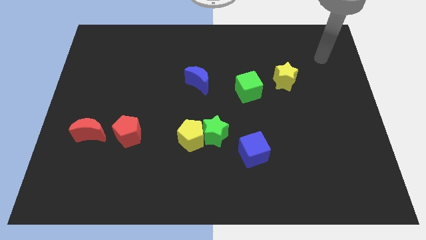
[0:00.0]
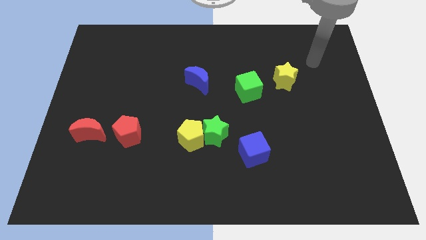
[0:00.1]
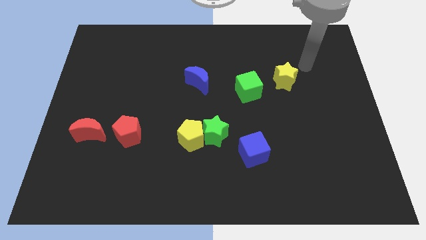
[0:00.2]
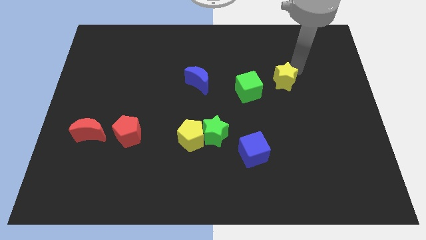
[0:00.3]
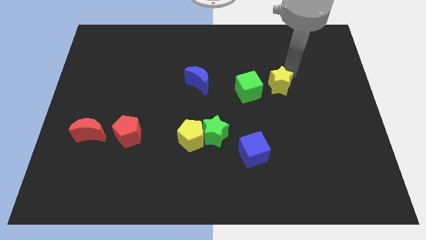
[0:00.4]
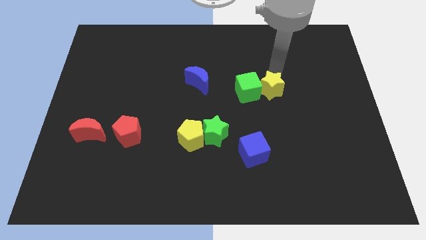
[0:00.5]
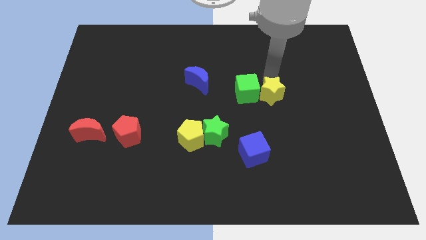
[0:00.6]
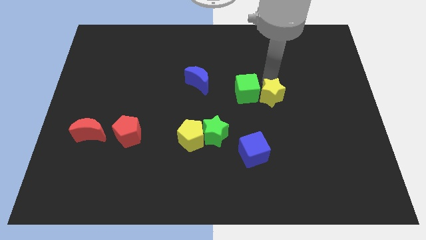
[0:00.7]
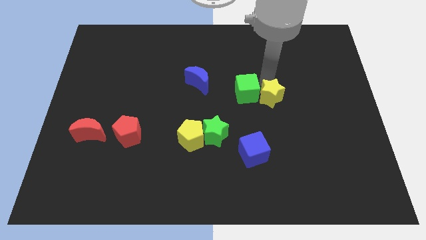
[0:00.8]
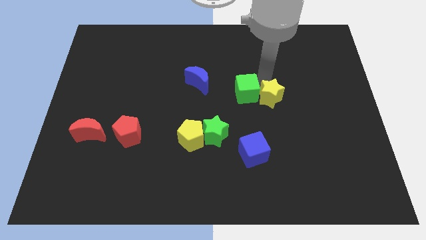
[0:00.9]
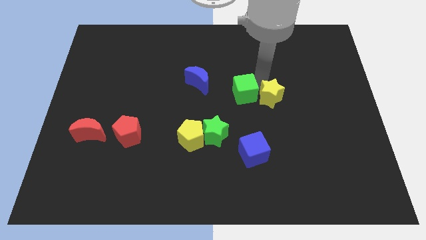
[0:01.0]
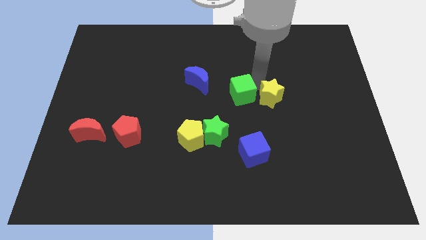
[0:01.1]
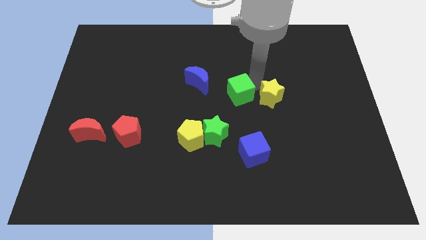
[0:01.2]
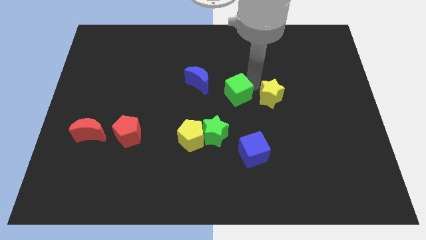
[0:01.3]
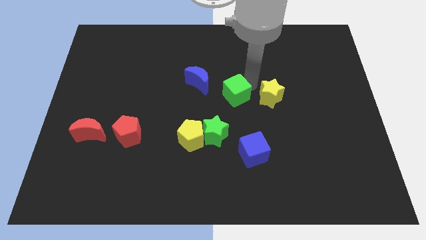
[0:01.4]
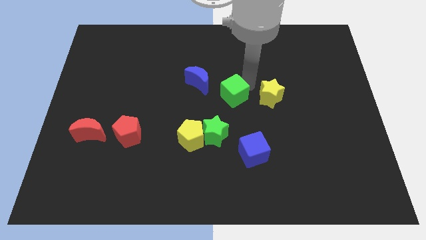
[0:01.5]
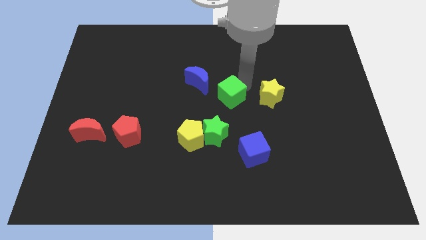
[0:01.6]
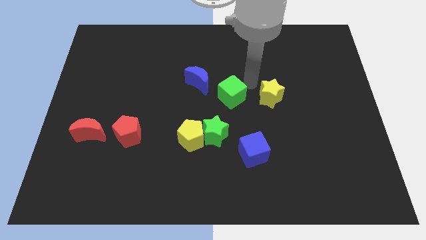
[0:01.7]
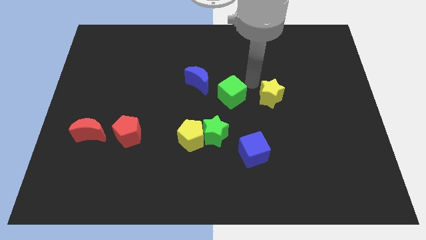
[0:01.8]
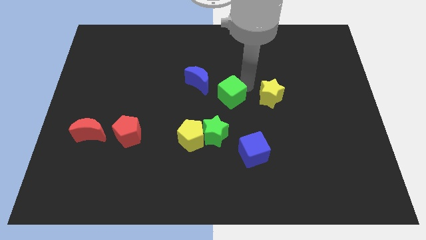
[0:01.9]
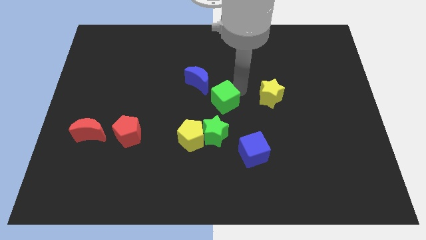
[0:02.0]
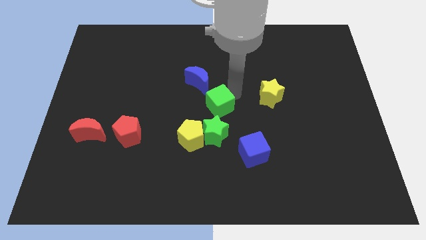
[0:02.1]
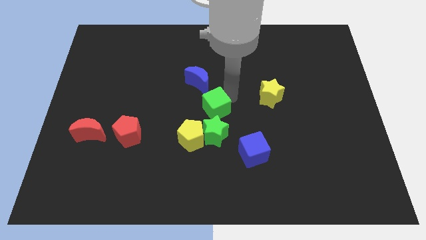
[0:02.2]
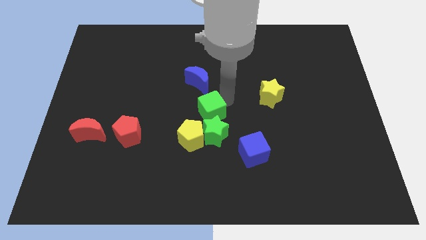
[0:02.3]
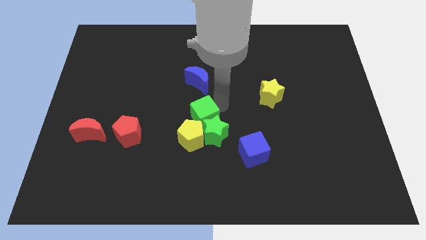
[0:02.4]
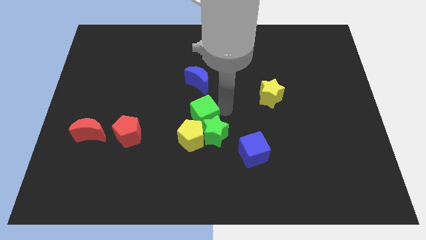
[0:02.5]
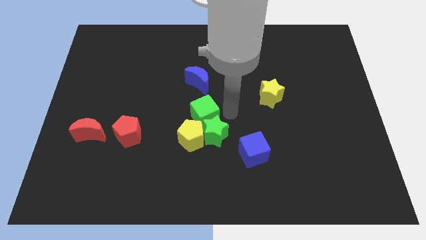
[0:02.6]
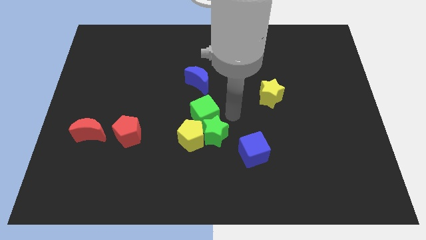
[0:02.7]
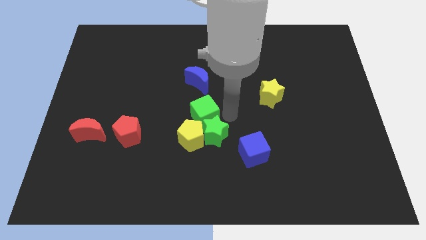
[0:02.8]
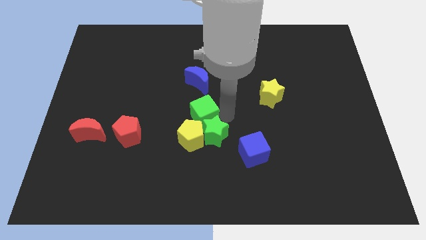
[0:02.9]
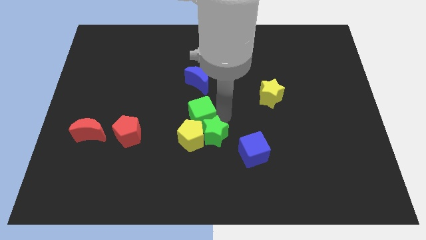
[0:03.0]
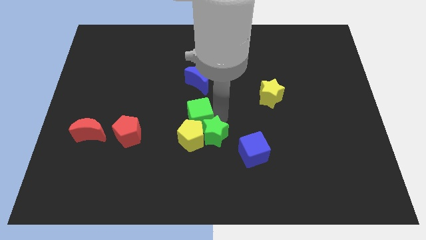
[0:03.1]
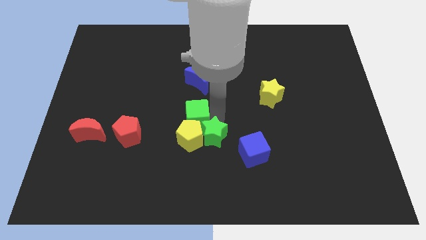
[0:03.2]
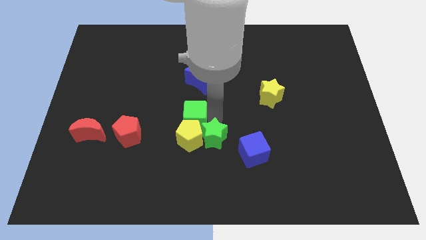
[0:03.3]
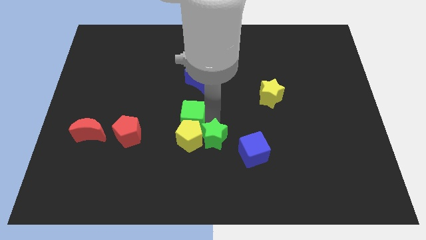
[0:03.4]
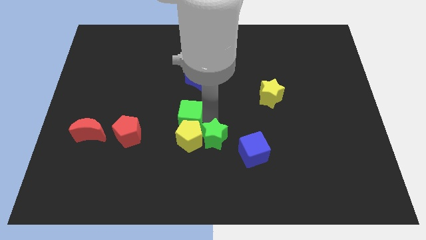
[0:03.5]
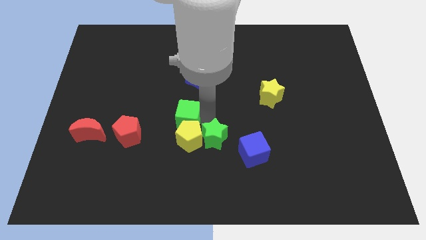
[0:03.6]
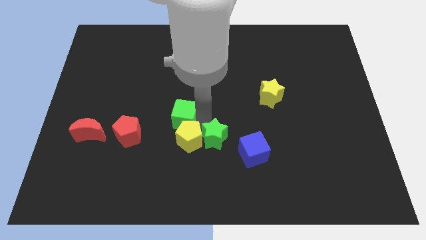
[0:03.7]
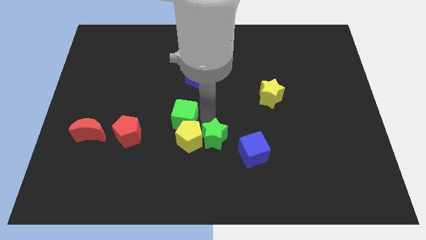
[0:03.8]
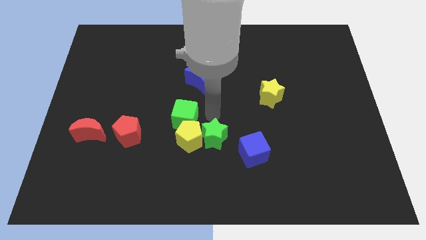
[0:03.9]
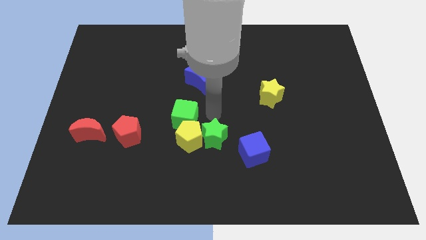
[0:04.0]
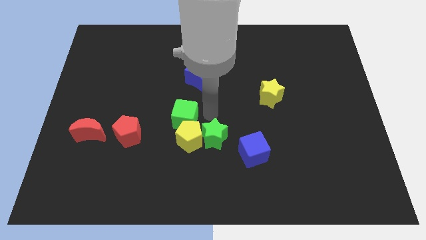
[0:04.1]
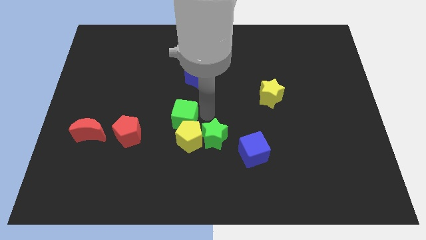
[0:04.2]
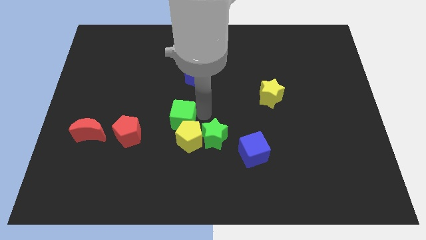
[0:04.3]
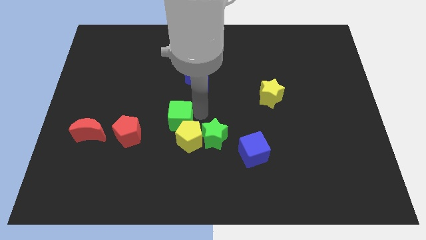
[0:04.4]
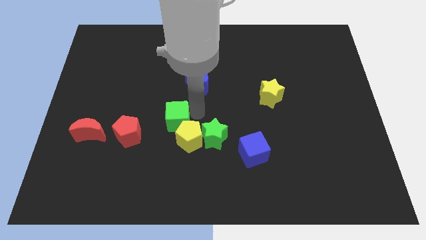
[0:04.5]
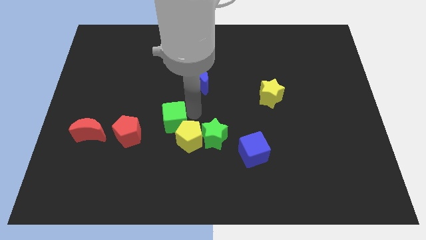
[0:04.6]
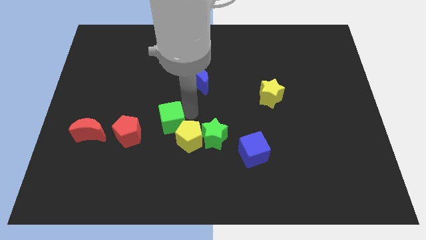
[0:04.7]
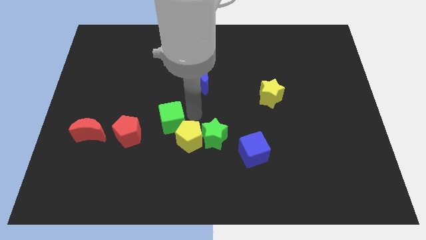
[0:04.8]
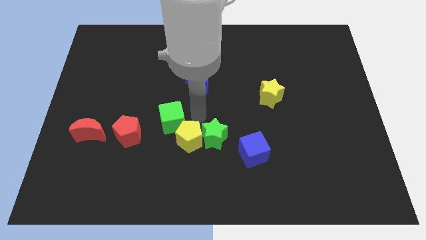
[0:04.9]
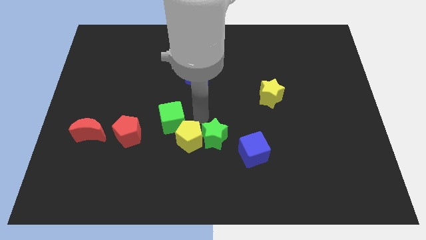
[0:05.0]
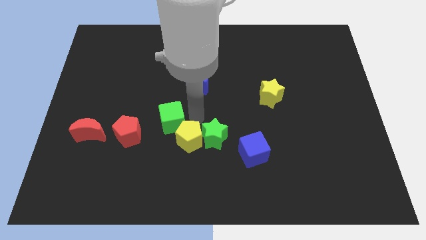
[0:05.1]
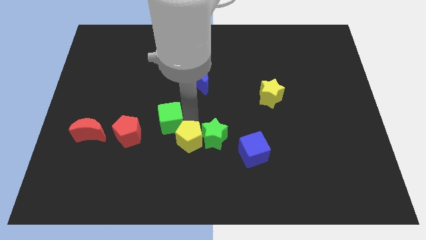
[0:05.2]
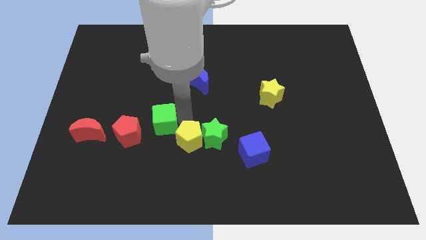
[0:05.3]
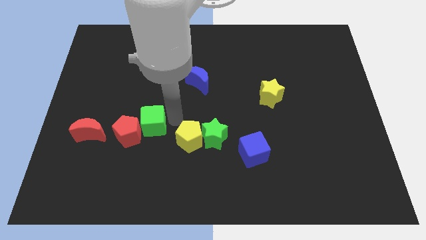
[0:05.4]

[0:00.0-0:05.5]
slide the green cube next to the red pentagon

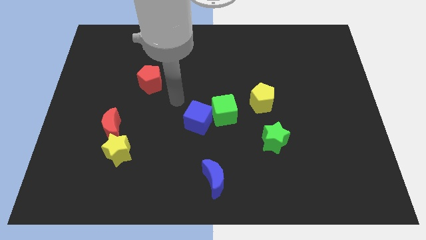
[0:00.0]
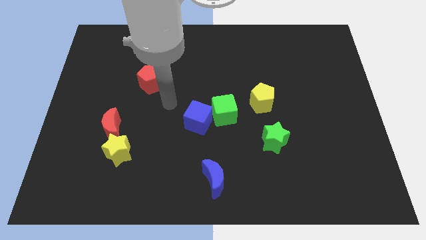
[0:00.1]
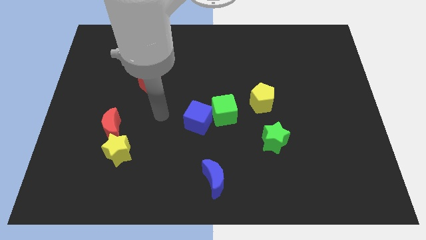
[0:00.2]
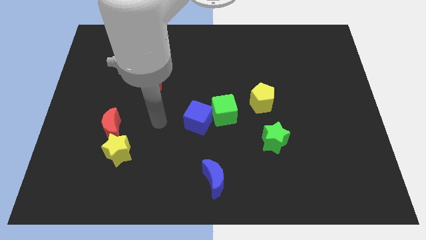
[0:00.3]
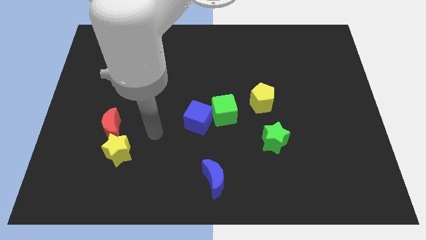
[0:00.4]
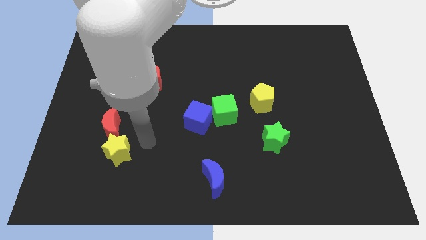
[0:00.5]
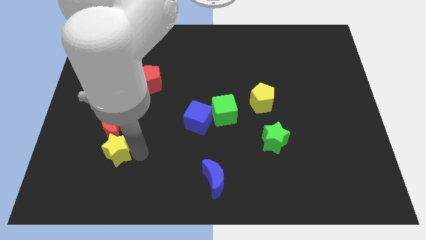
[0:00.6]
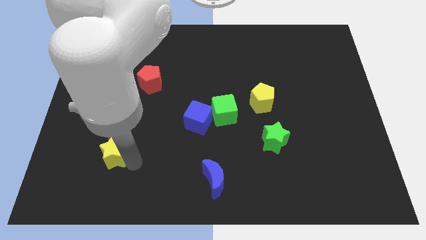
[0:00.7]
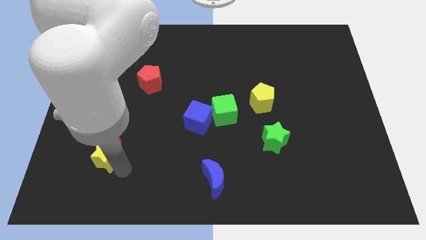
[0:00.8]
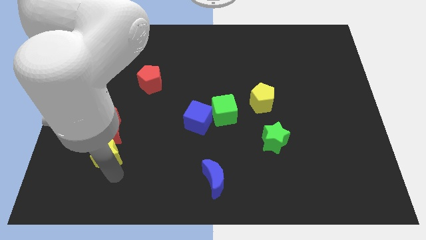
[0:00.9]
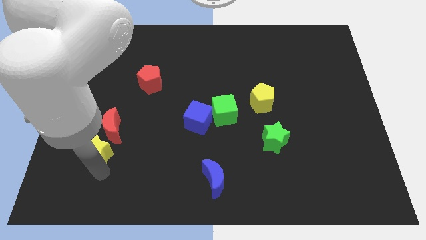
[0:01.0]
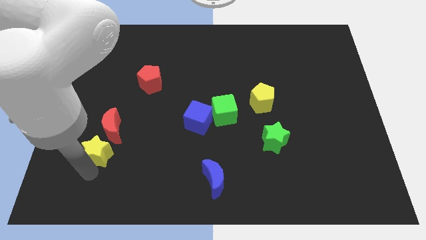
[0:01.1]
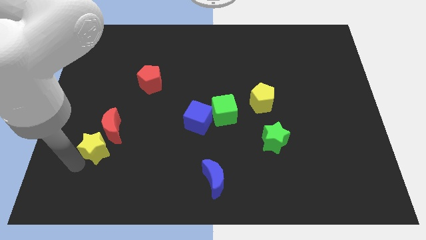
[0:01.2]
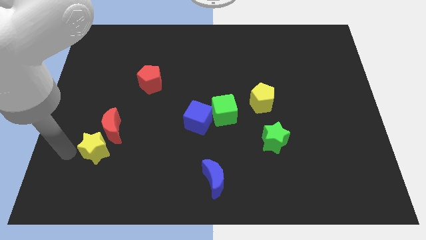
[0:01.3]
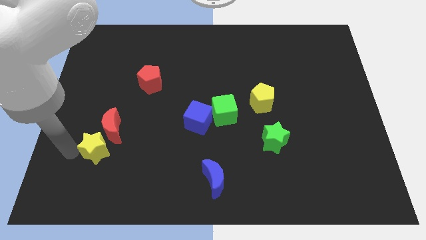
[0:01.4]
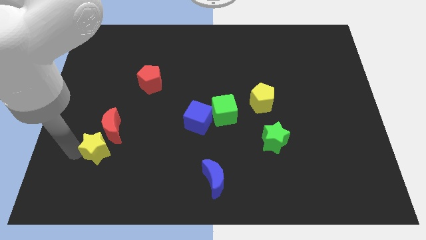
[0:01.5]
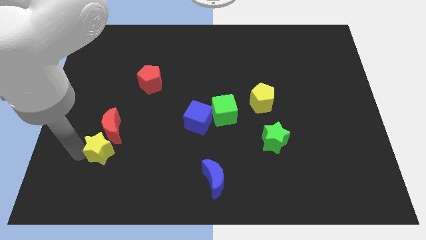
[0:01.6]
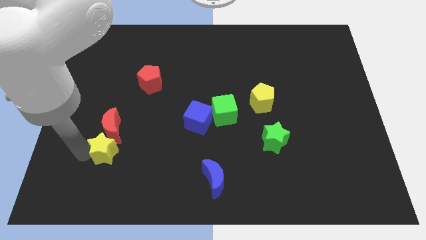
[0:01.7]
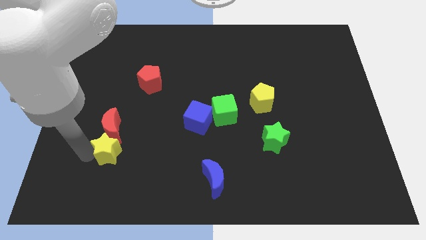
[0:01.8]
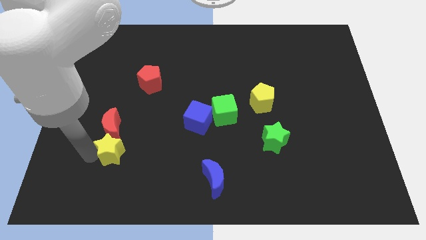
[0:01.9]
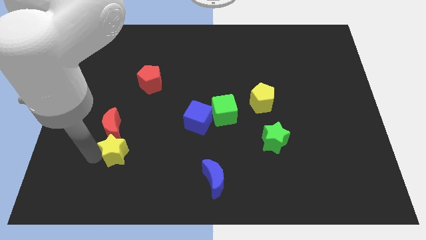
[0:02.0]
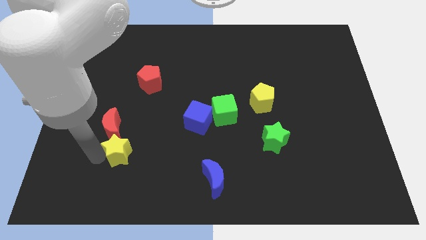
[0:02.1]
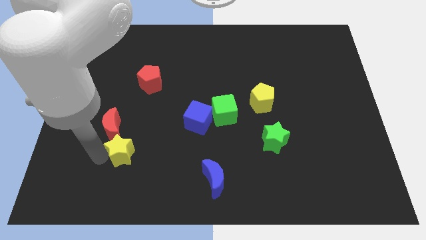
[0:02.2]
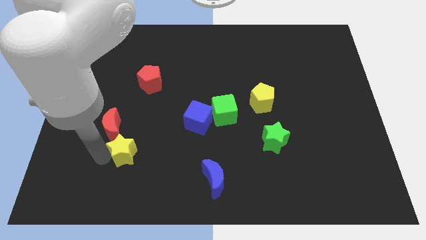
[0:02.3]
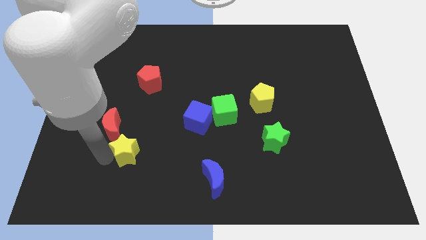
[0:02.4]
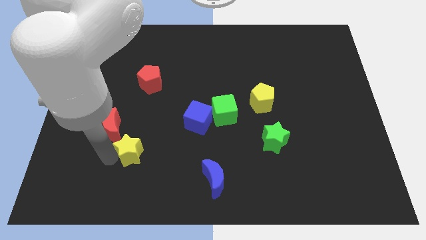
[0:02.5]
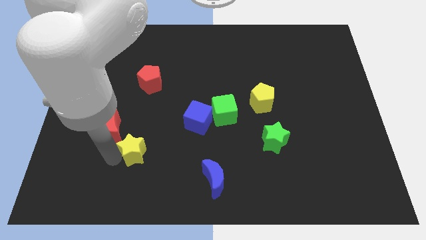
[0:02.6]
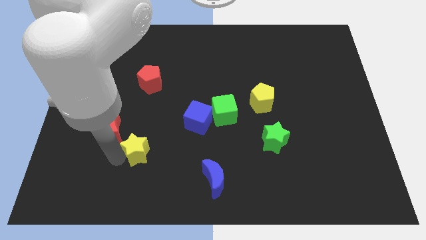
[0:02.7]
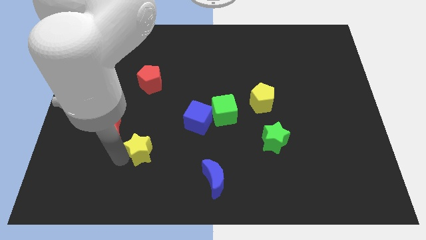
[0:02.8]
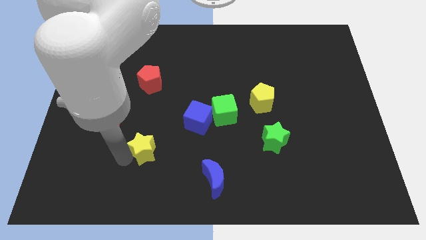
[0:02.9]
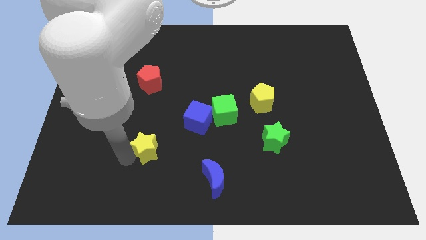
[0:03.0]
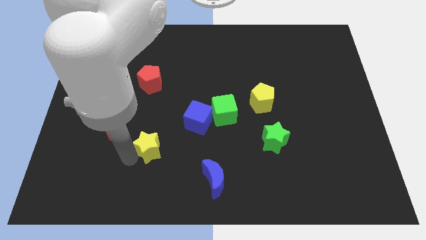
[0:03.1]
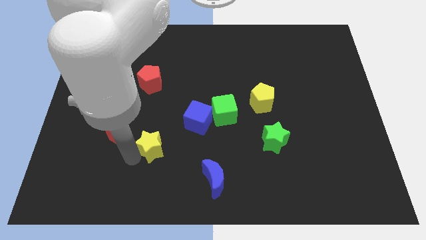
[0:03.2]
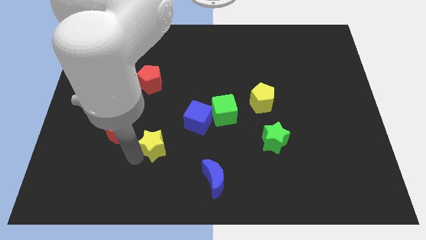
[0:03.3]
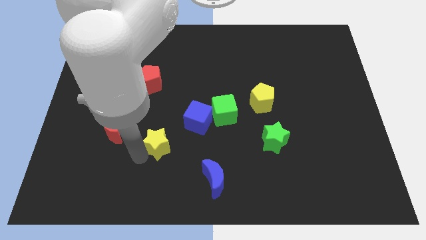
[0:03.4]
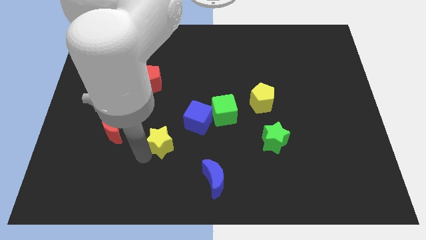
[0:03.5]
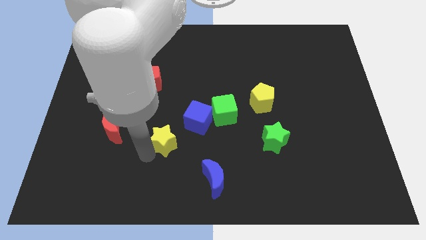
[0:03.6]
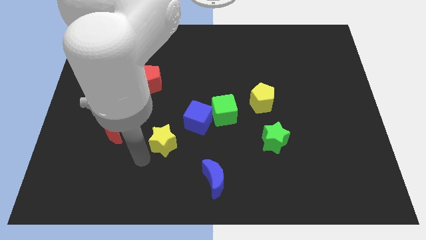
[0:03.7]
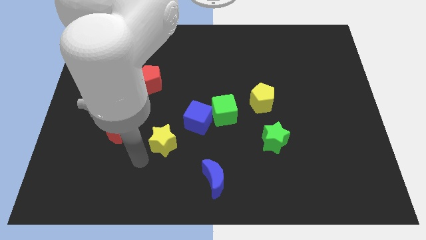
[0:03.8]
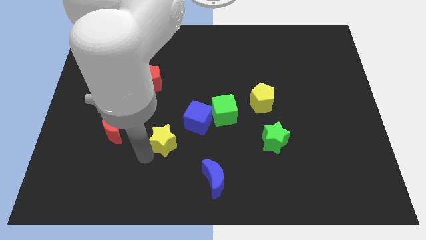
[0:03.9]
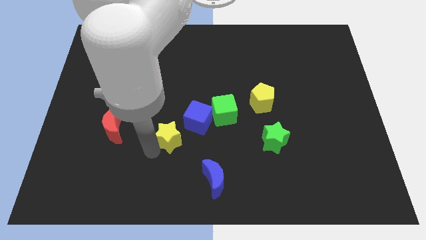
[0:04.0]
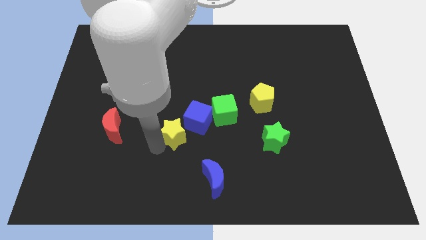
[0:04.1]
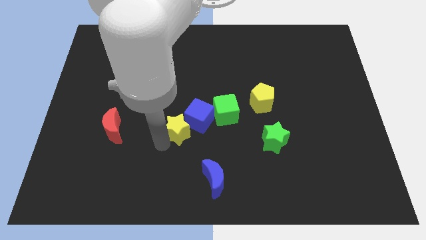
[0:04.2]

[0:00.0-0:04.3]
push the yellow star to the blue cube
